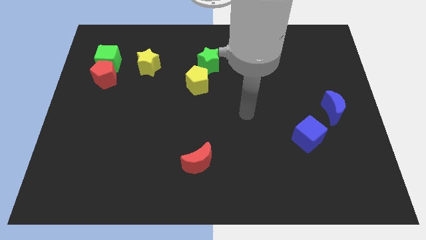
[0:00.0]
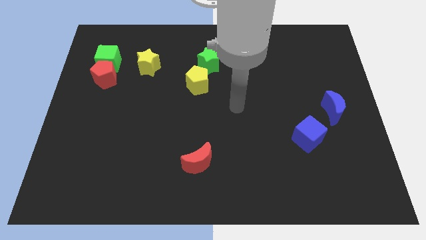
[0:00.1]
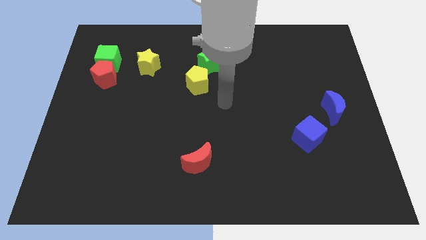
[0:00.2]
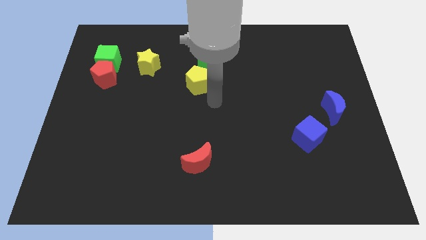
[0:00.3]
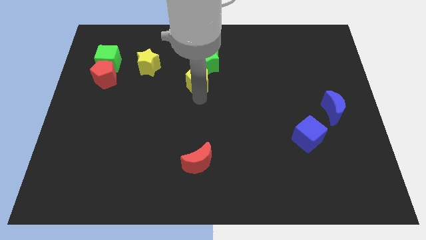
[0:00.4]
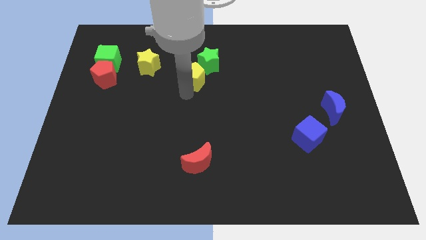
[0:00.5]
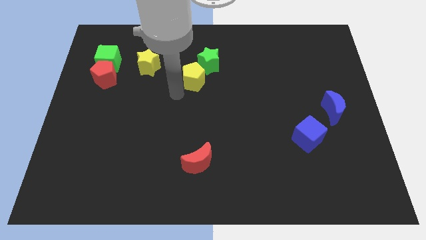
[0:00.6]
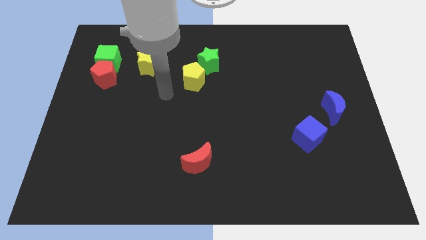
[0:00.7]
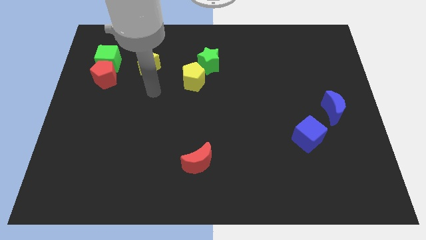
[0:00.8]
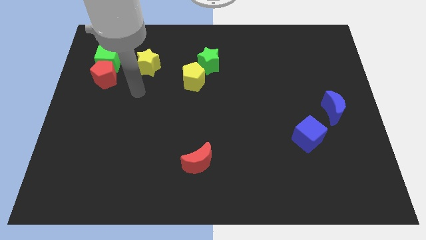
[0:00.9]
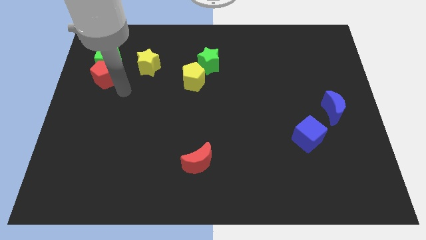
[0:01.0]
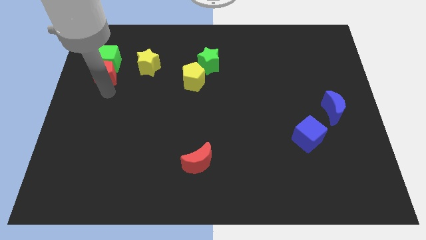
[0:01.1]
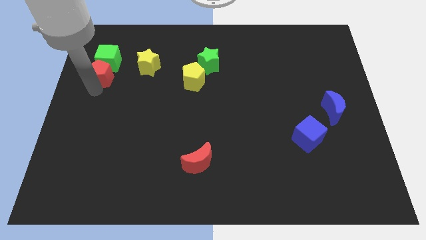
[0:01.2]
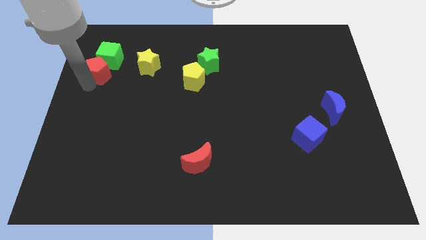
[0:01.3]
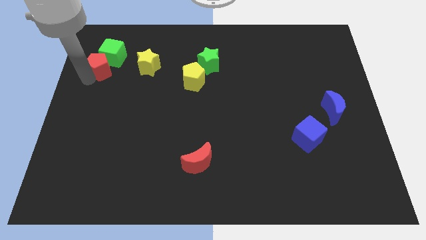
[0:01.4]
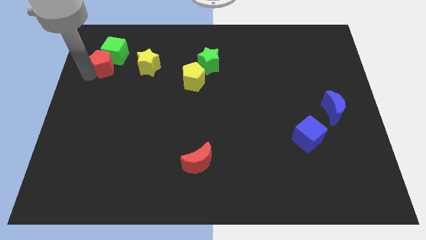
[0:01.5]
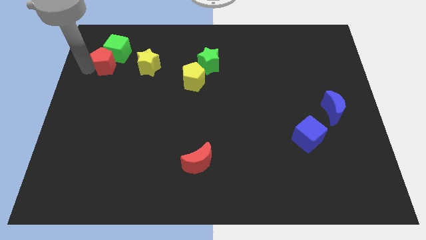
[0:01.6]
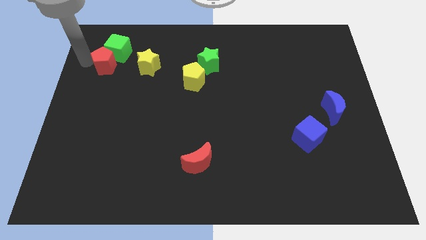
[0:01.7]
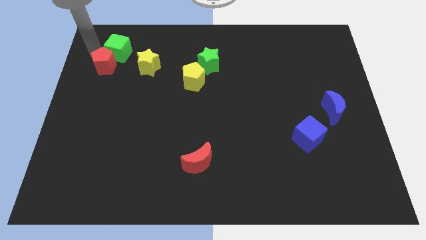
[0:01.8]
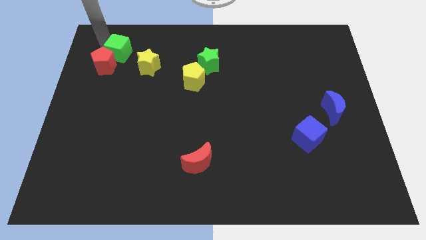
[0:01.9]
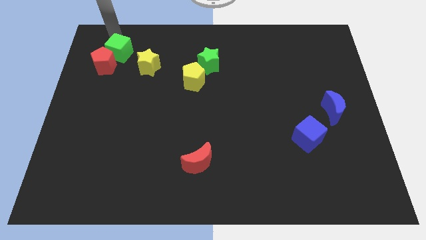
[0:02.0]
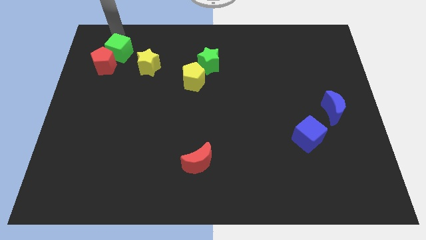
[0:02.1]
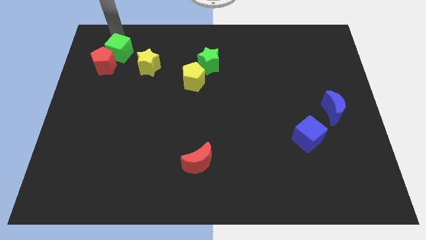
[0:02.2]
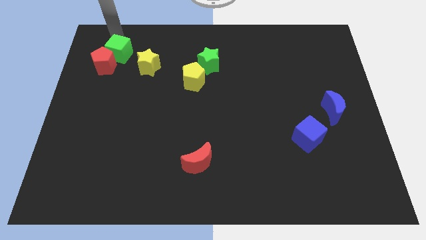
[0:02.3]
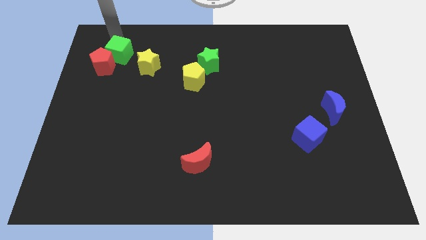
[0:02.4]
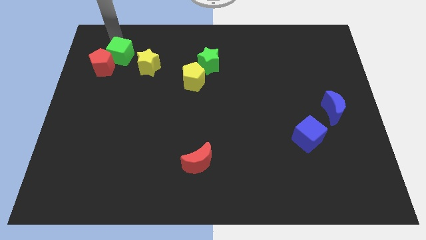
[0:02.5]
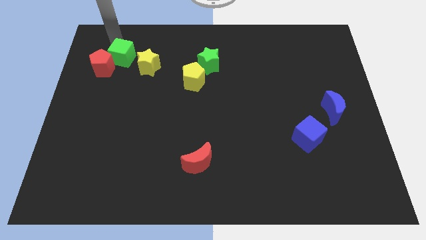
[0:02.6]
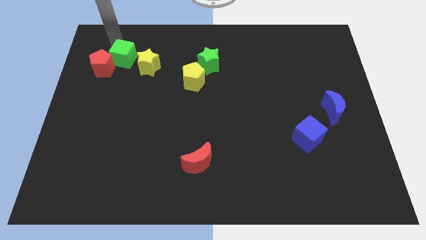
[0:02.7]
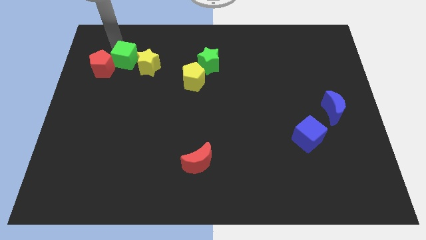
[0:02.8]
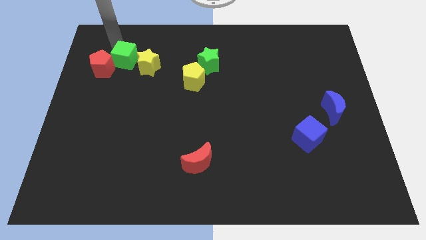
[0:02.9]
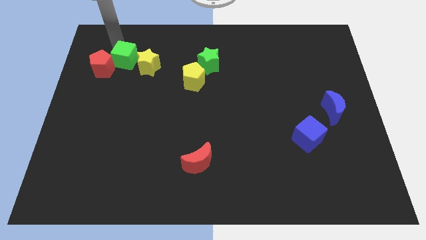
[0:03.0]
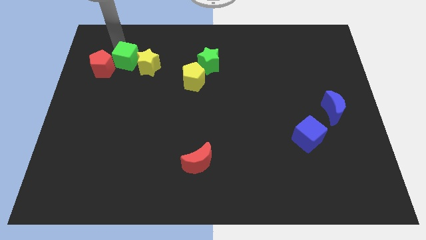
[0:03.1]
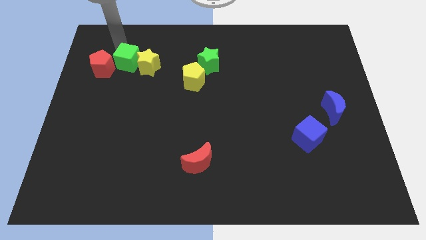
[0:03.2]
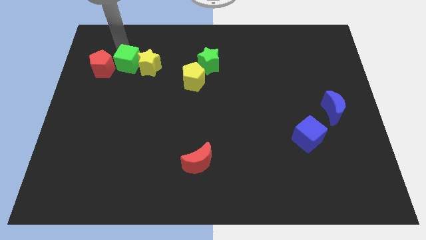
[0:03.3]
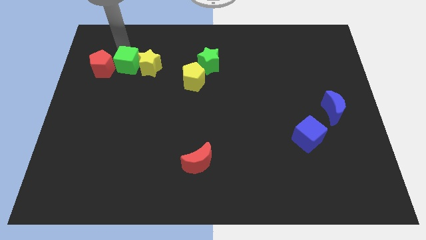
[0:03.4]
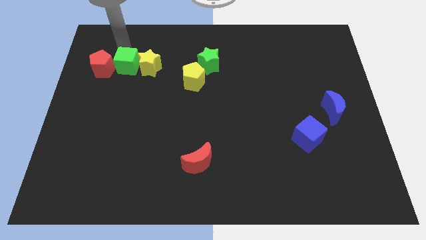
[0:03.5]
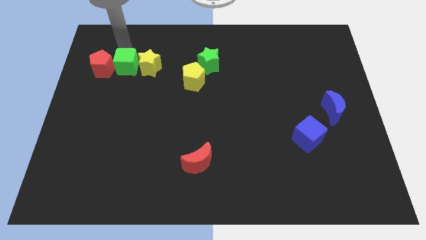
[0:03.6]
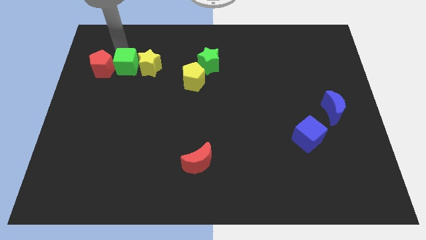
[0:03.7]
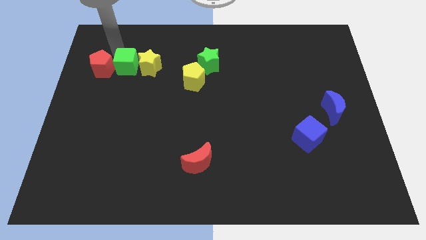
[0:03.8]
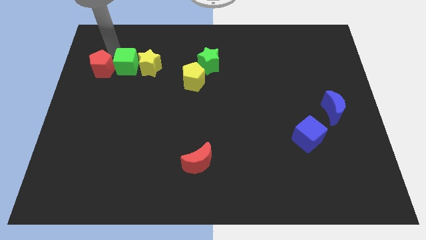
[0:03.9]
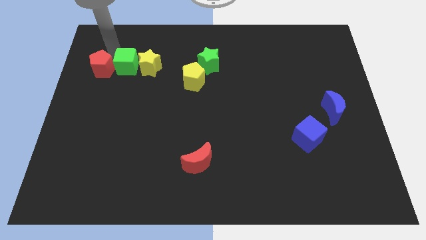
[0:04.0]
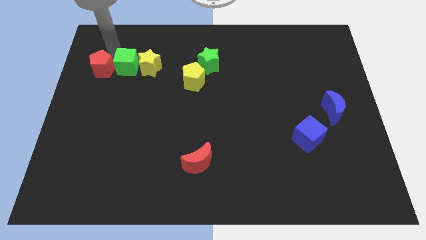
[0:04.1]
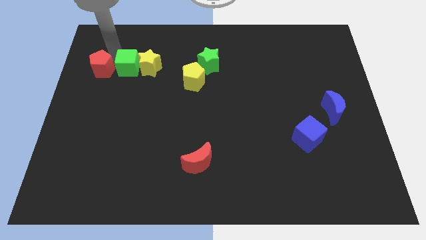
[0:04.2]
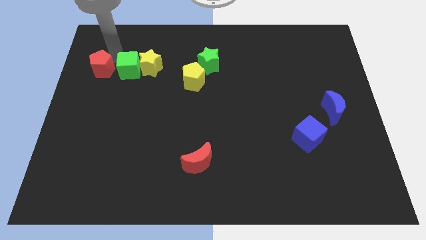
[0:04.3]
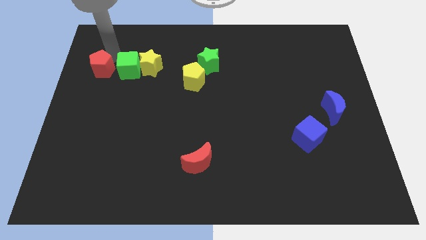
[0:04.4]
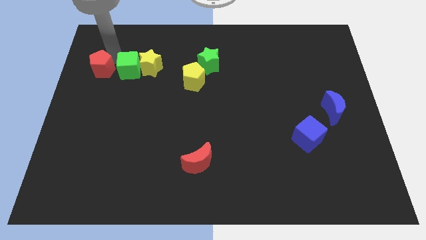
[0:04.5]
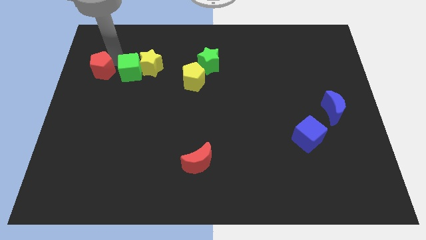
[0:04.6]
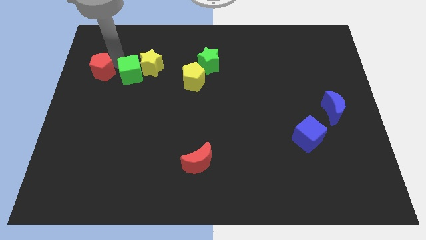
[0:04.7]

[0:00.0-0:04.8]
slide the green cube diagonally downwards and to the right a bit

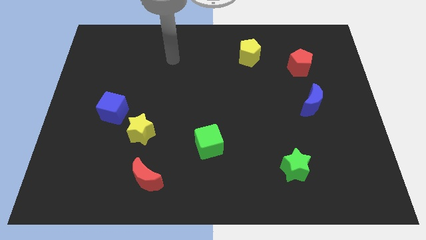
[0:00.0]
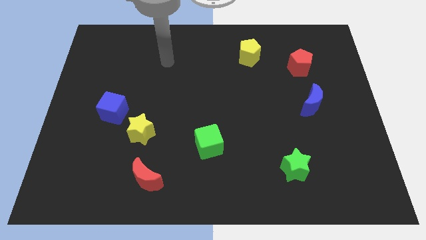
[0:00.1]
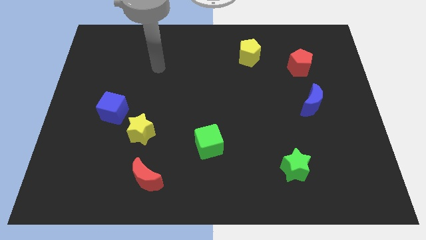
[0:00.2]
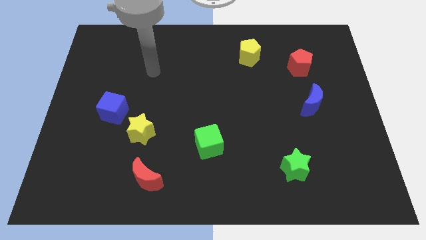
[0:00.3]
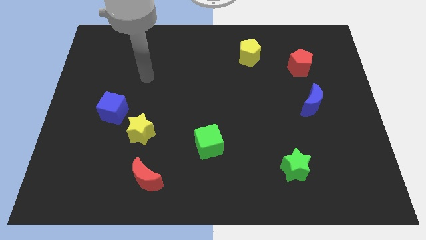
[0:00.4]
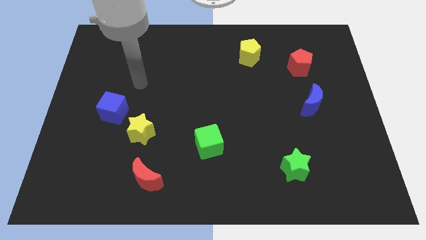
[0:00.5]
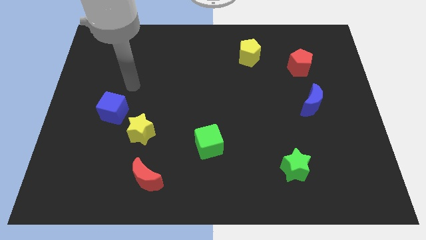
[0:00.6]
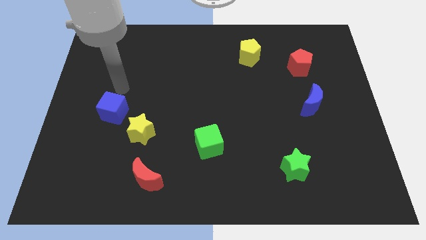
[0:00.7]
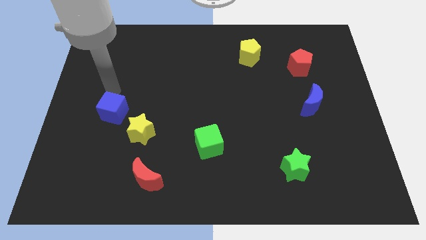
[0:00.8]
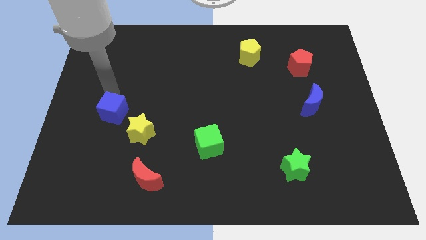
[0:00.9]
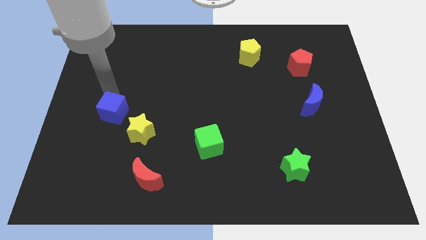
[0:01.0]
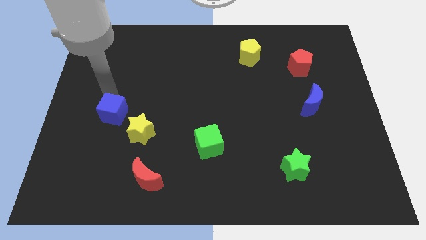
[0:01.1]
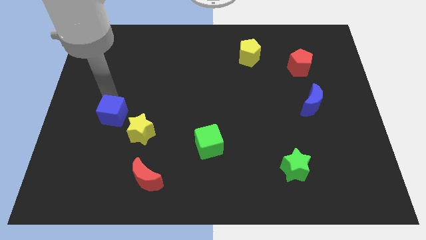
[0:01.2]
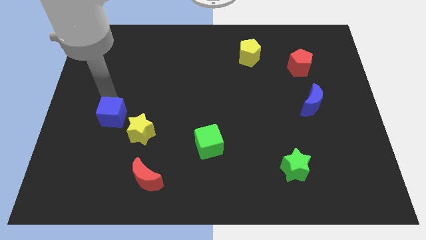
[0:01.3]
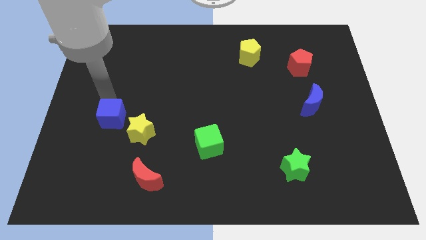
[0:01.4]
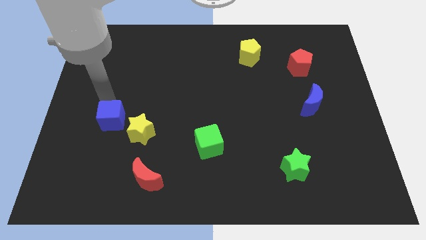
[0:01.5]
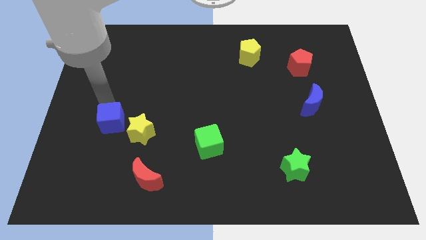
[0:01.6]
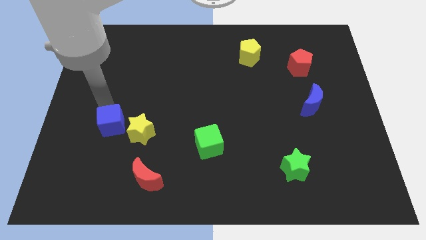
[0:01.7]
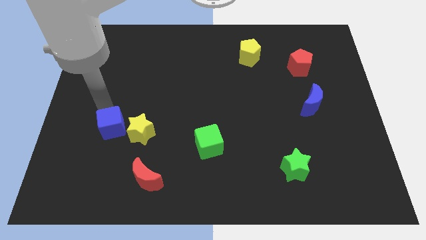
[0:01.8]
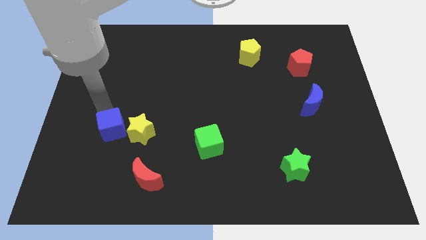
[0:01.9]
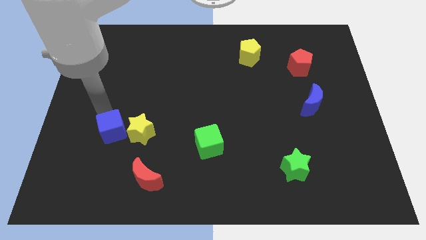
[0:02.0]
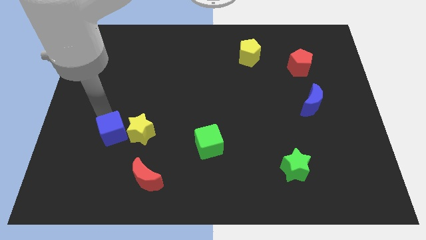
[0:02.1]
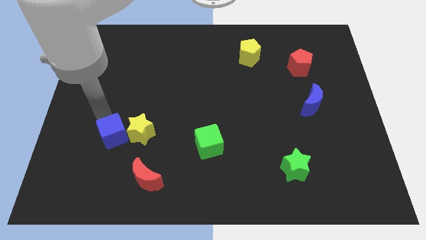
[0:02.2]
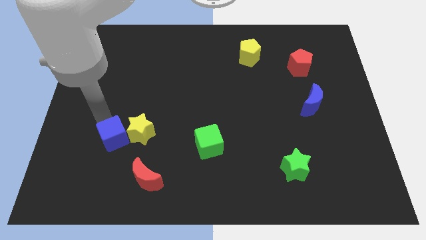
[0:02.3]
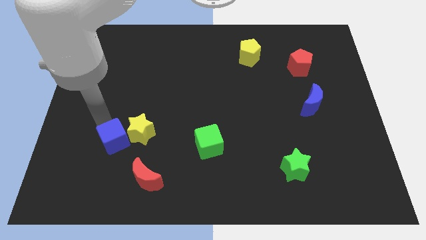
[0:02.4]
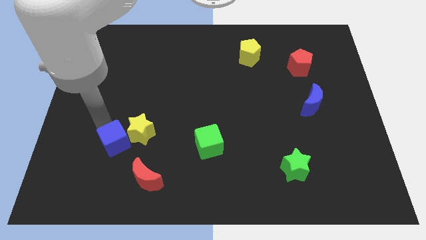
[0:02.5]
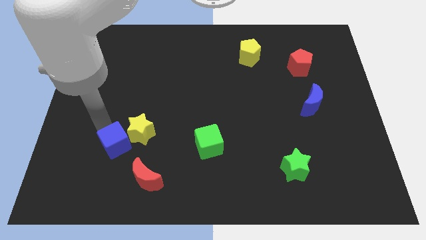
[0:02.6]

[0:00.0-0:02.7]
slightly move the blue cube diagonally downwards and to the right

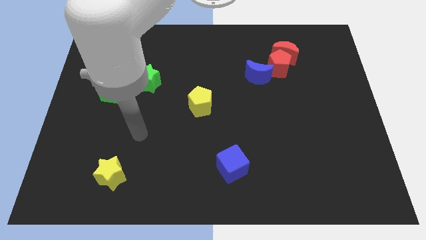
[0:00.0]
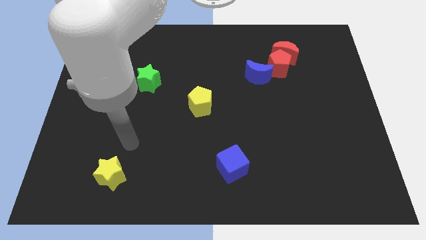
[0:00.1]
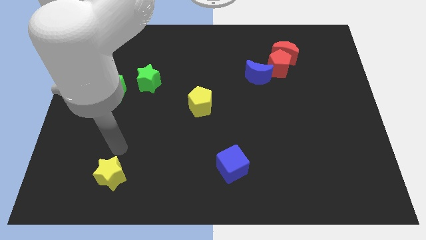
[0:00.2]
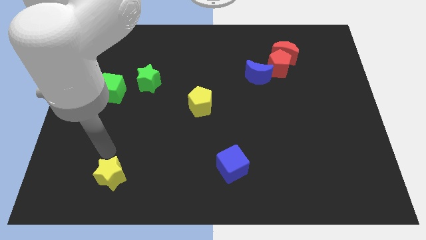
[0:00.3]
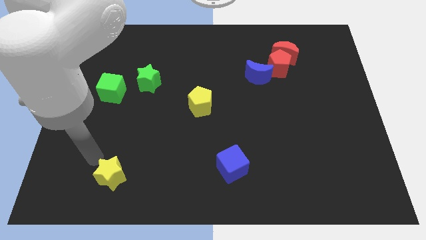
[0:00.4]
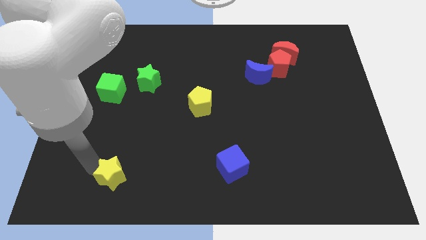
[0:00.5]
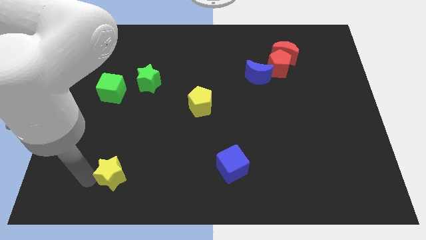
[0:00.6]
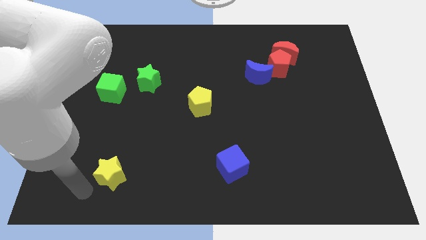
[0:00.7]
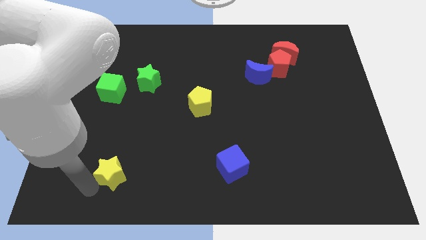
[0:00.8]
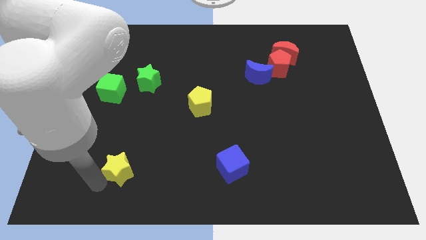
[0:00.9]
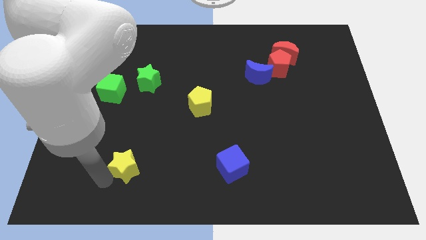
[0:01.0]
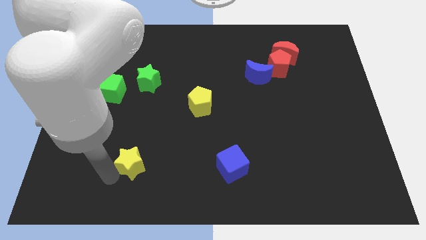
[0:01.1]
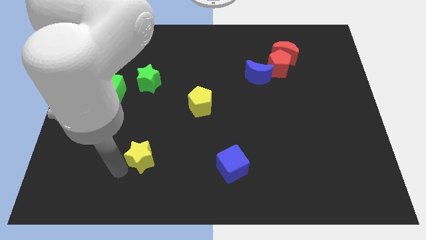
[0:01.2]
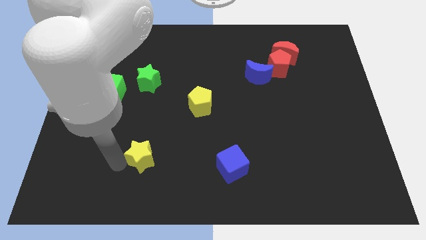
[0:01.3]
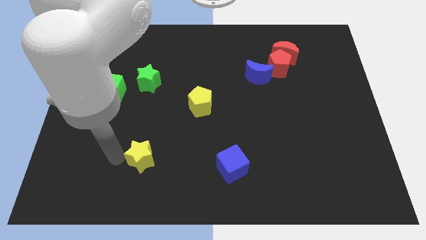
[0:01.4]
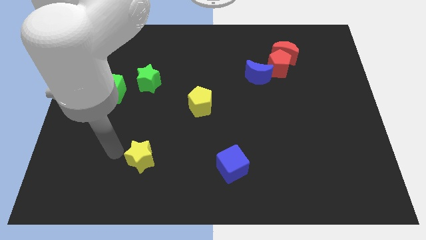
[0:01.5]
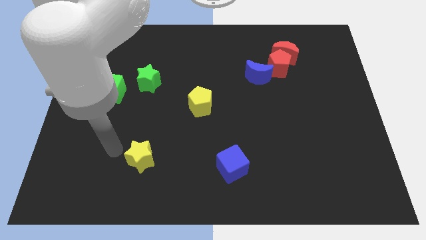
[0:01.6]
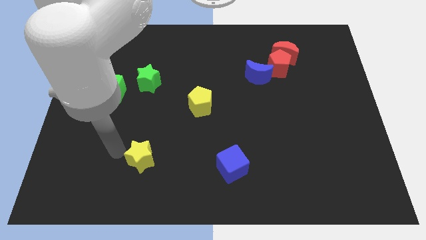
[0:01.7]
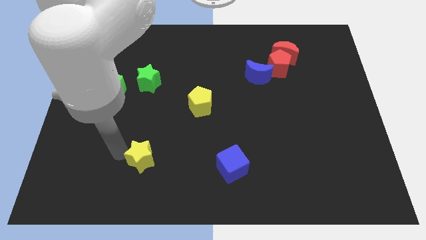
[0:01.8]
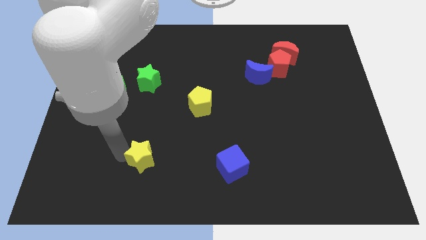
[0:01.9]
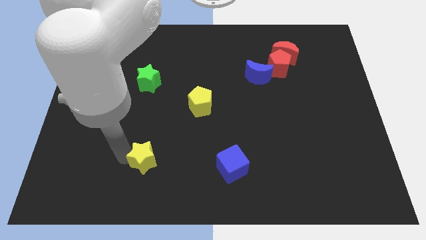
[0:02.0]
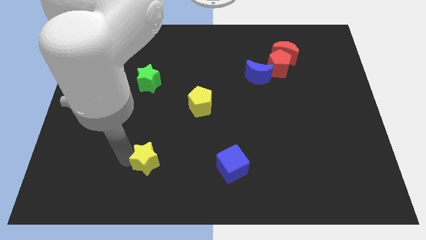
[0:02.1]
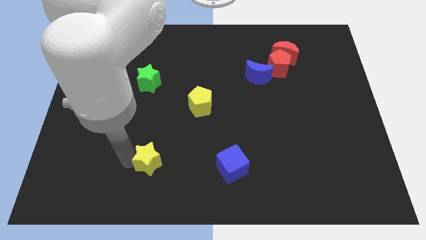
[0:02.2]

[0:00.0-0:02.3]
move the yellow star somewhat to the right
